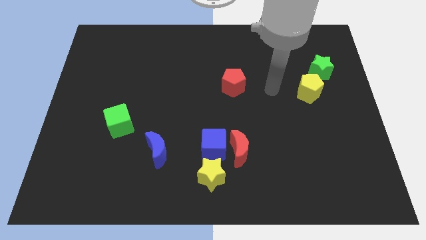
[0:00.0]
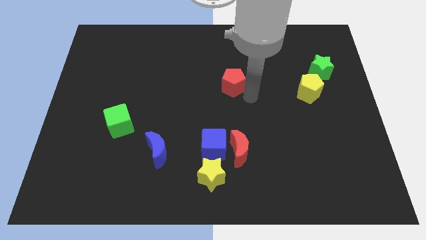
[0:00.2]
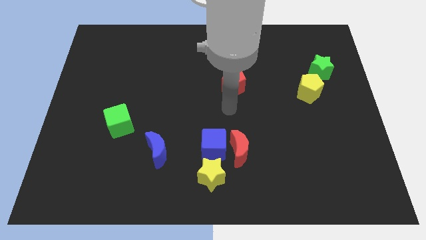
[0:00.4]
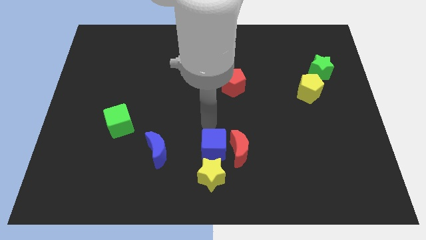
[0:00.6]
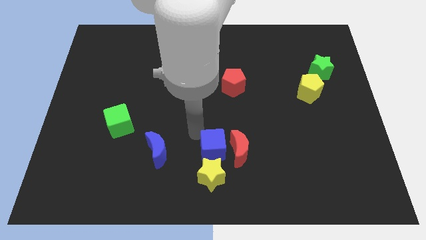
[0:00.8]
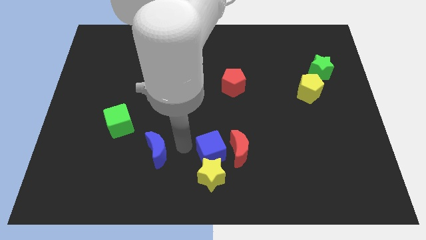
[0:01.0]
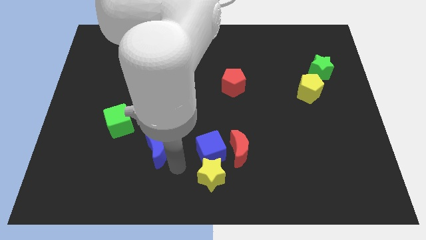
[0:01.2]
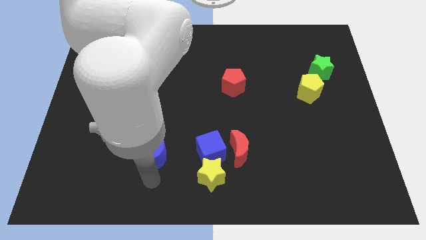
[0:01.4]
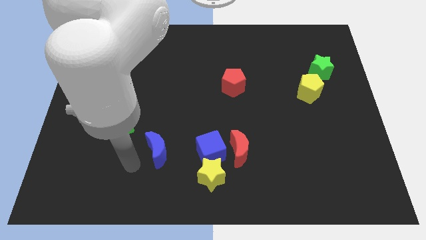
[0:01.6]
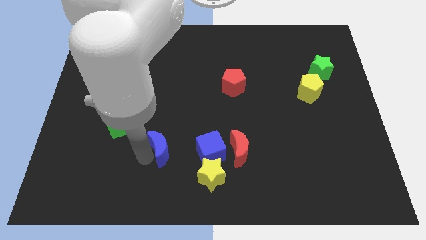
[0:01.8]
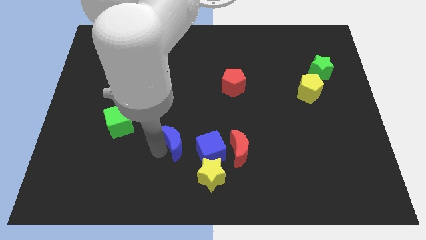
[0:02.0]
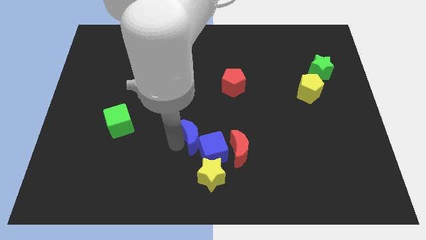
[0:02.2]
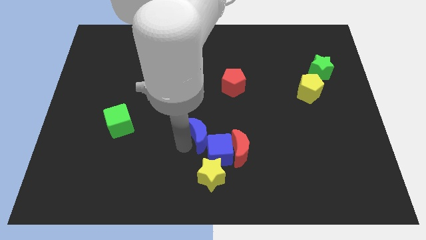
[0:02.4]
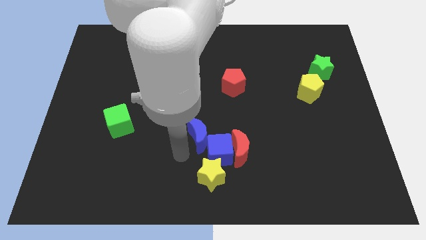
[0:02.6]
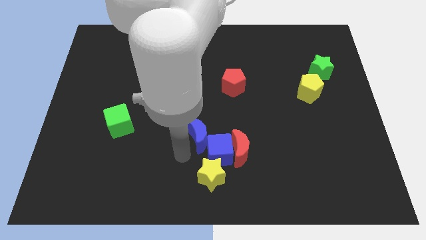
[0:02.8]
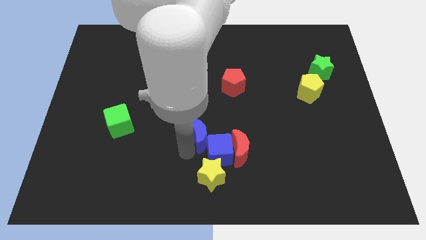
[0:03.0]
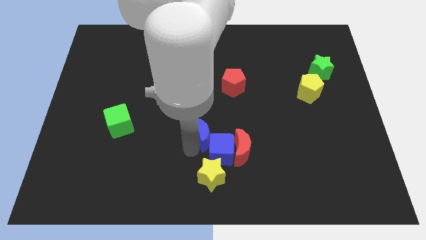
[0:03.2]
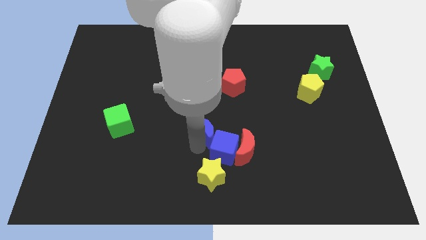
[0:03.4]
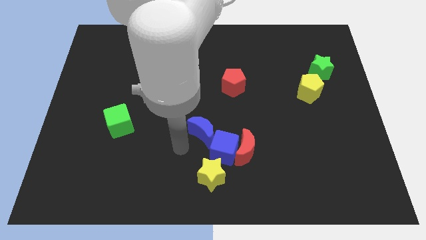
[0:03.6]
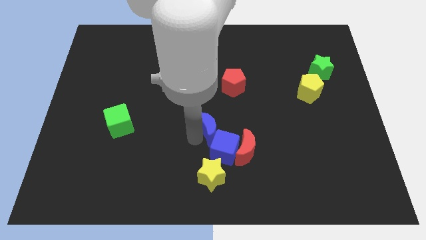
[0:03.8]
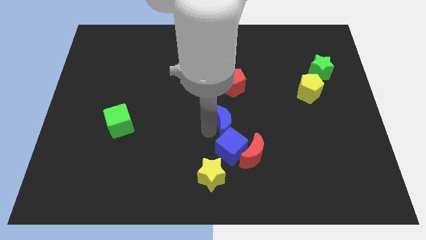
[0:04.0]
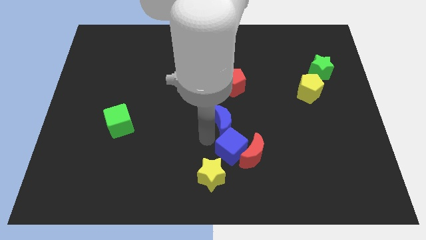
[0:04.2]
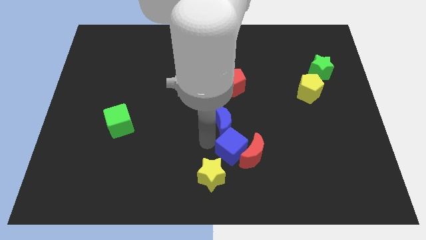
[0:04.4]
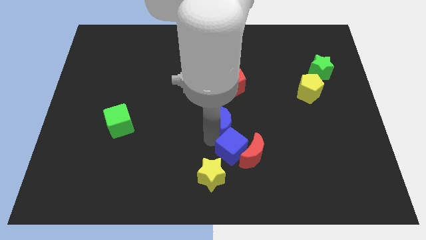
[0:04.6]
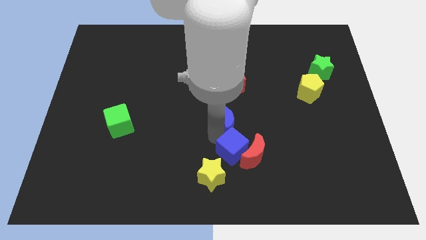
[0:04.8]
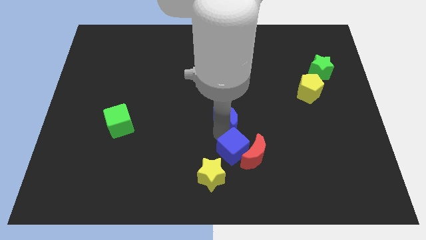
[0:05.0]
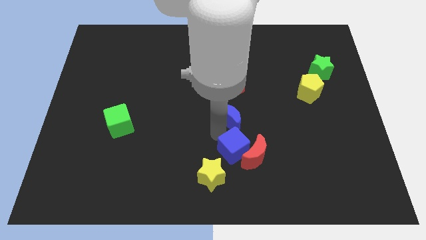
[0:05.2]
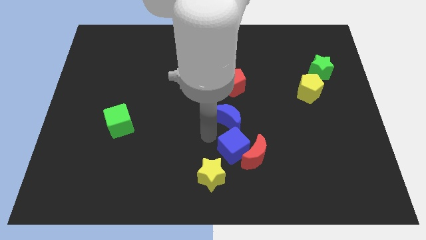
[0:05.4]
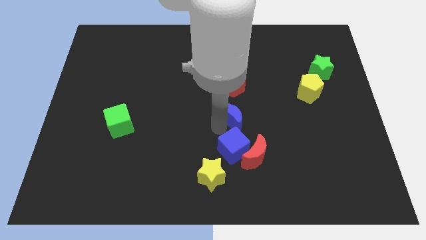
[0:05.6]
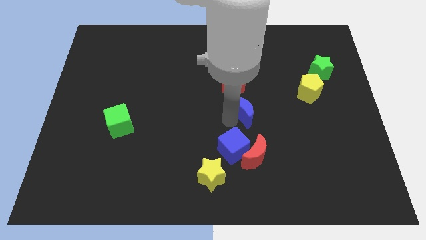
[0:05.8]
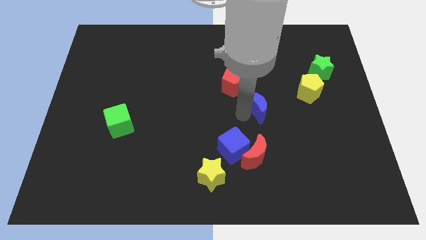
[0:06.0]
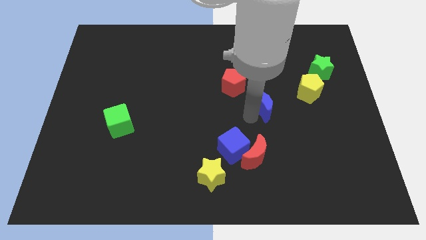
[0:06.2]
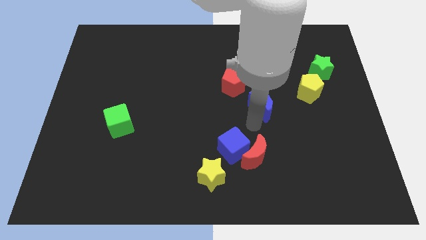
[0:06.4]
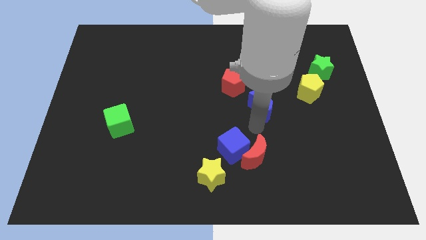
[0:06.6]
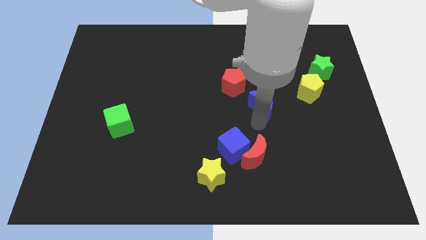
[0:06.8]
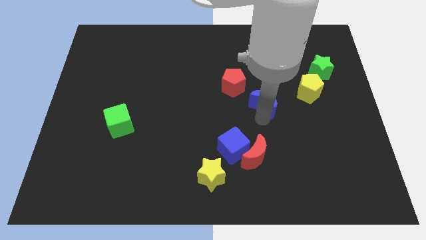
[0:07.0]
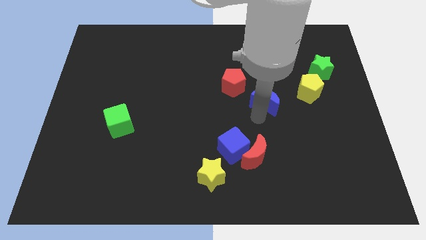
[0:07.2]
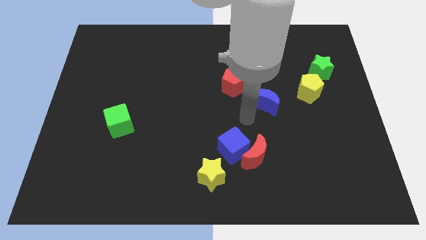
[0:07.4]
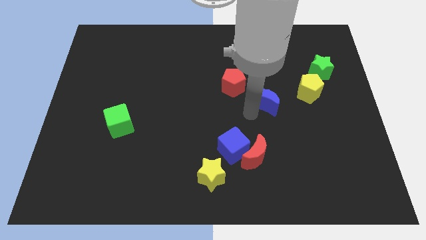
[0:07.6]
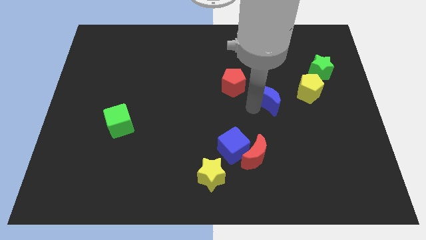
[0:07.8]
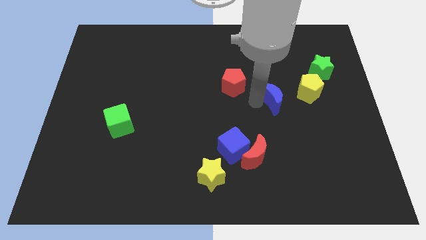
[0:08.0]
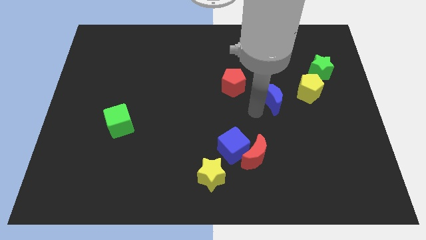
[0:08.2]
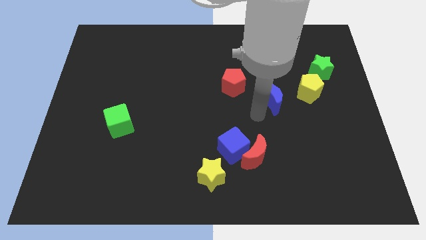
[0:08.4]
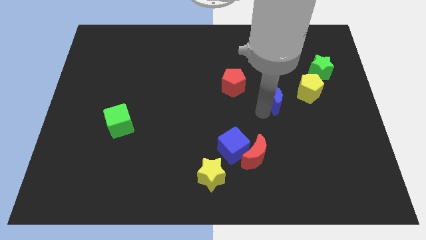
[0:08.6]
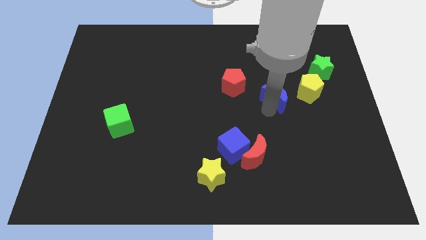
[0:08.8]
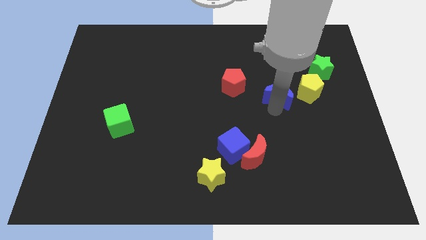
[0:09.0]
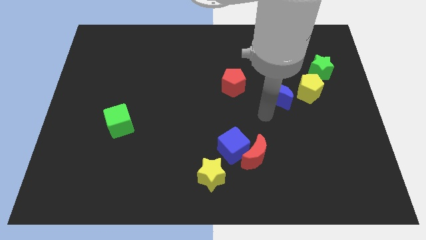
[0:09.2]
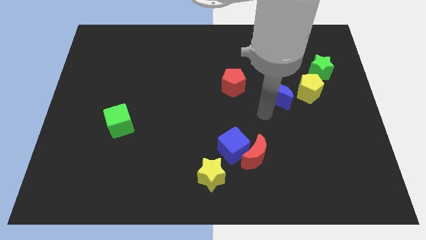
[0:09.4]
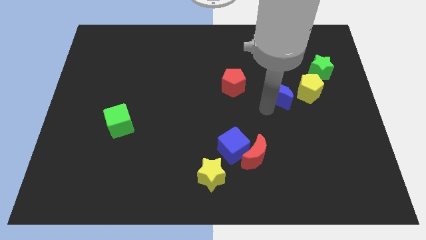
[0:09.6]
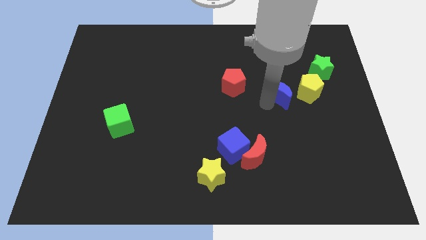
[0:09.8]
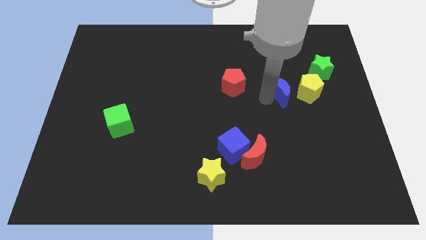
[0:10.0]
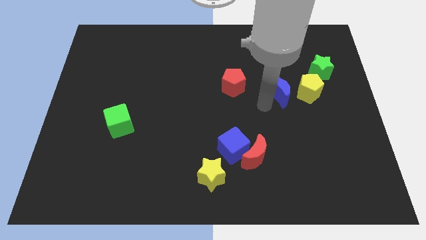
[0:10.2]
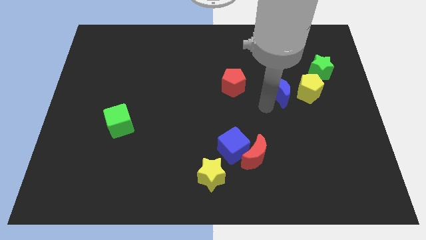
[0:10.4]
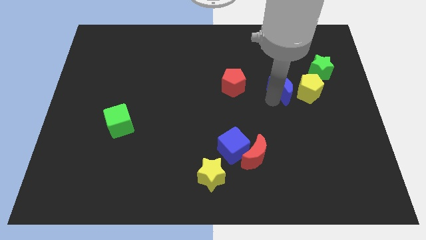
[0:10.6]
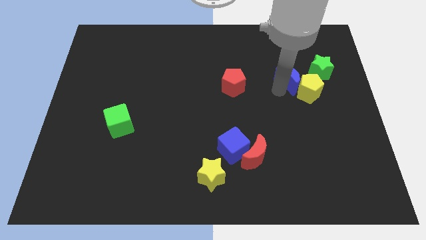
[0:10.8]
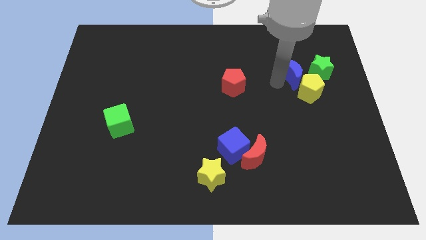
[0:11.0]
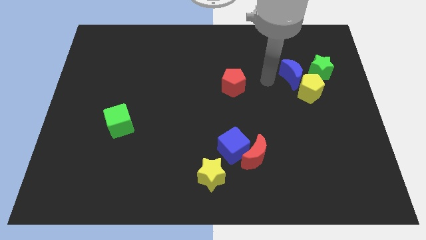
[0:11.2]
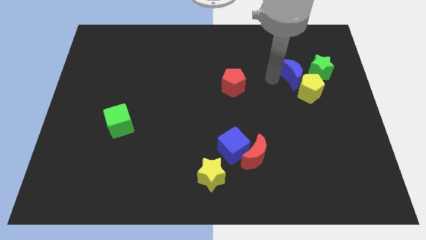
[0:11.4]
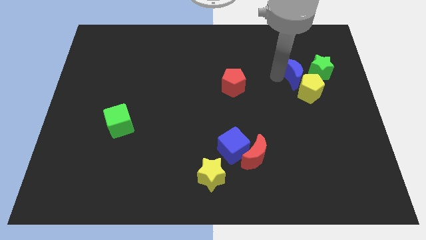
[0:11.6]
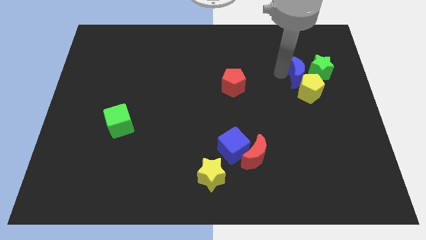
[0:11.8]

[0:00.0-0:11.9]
put the blue moon next to the green star

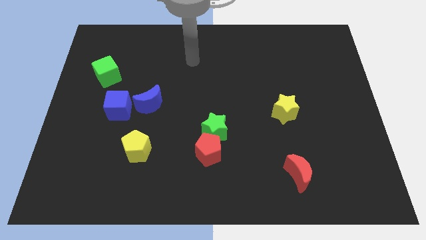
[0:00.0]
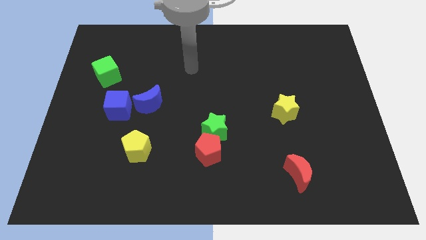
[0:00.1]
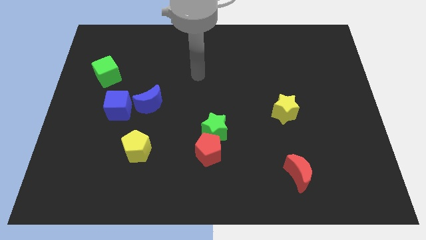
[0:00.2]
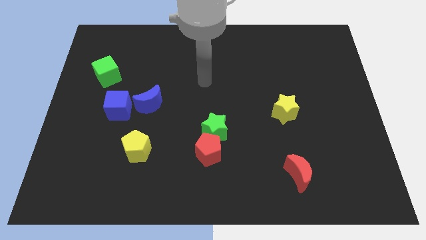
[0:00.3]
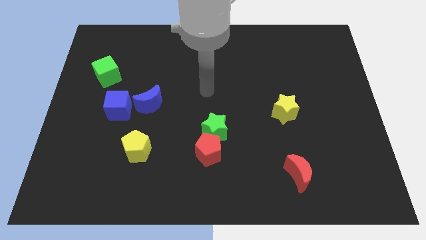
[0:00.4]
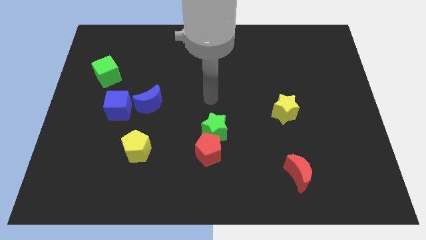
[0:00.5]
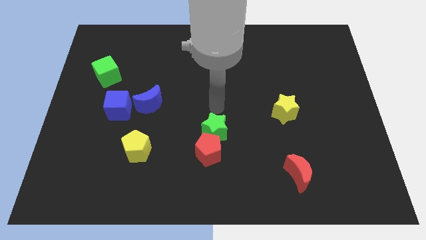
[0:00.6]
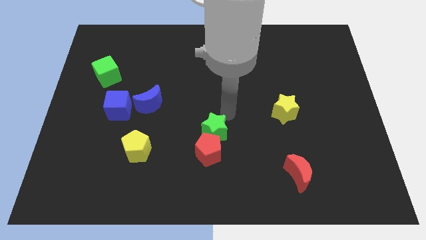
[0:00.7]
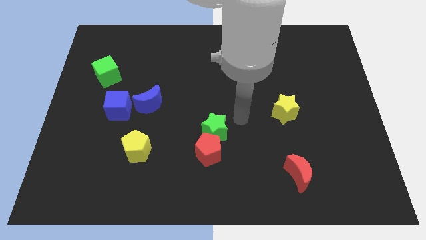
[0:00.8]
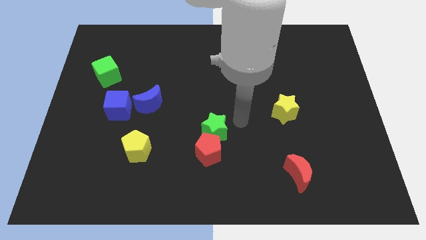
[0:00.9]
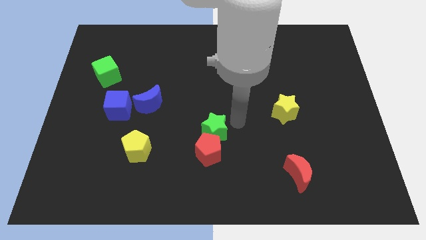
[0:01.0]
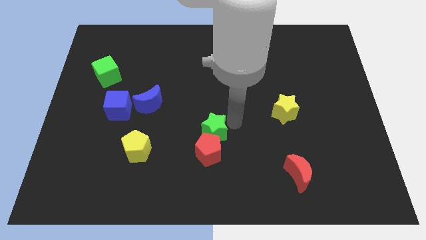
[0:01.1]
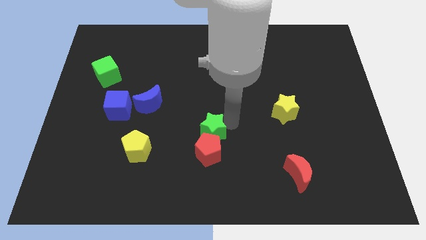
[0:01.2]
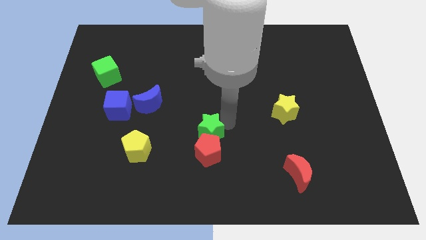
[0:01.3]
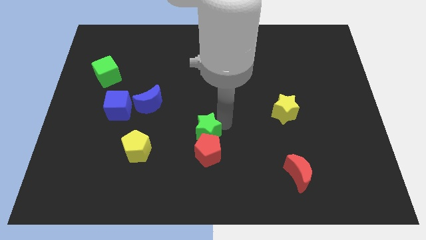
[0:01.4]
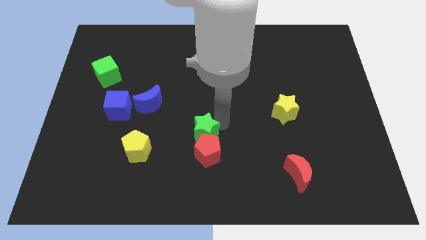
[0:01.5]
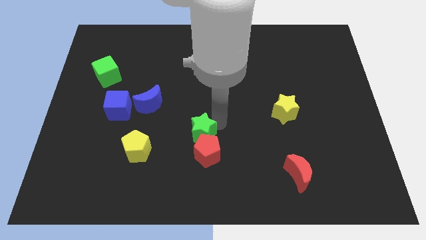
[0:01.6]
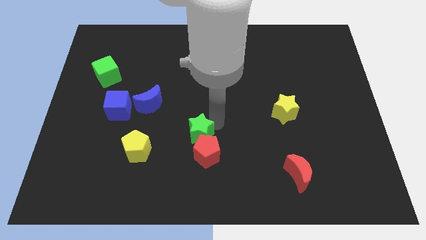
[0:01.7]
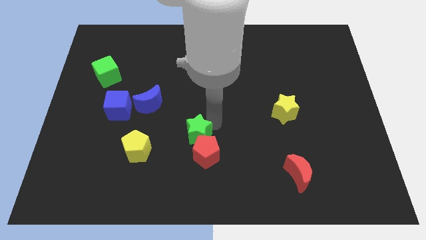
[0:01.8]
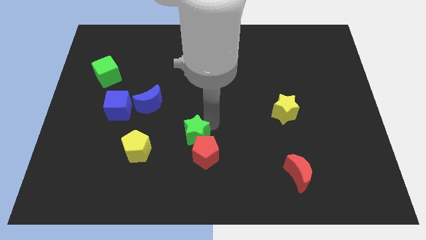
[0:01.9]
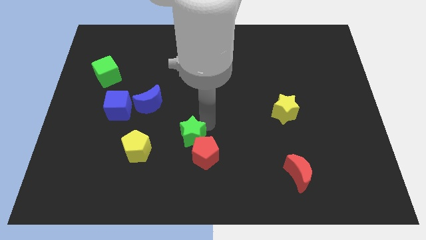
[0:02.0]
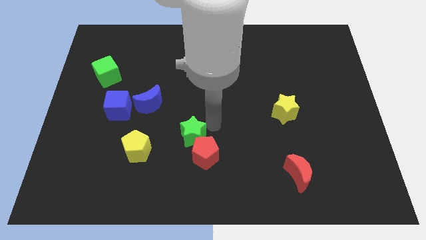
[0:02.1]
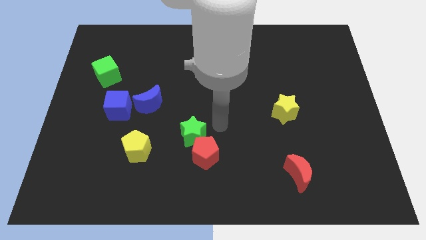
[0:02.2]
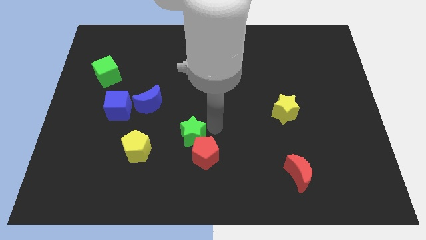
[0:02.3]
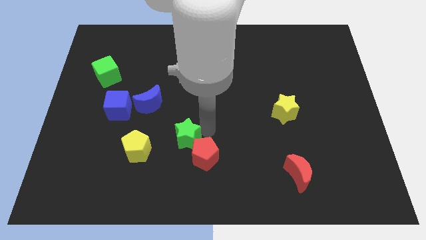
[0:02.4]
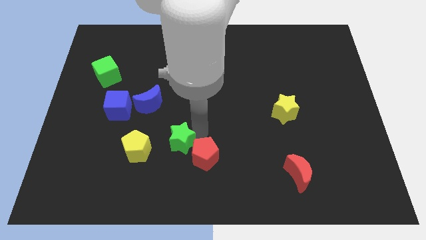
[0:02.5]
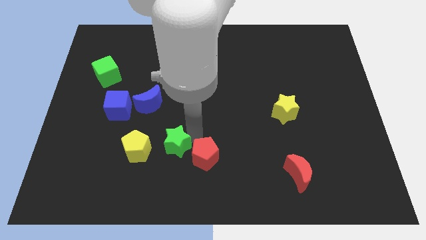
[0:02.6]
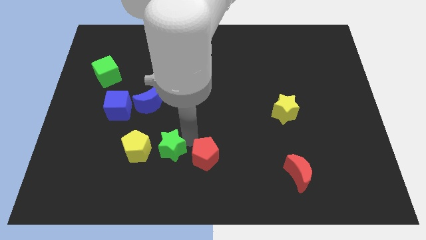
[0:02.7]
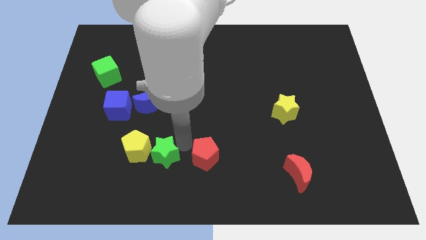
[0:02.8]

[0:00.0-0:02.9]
push the green star to the yellow pentagon
